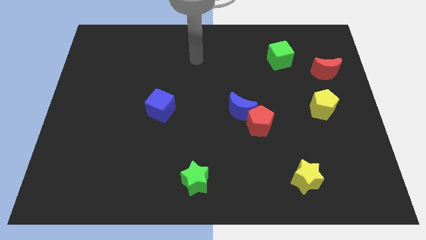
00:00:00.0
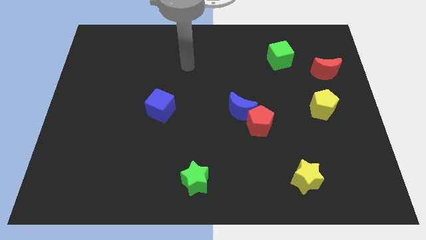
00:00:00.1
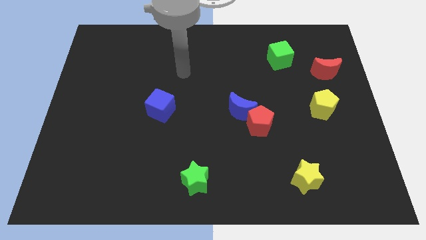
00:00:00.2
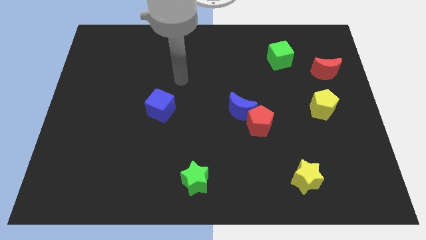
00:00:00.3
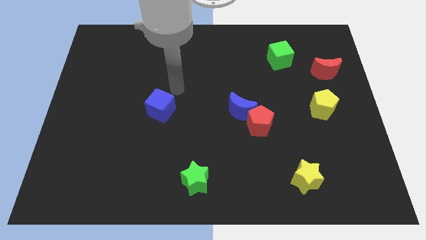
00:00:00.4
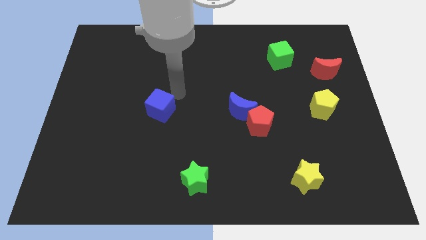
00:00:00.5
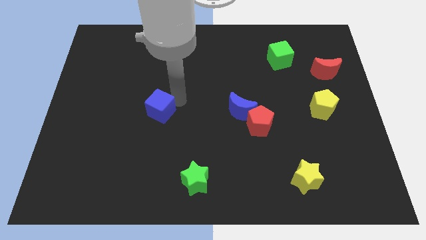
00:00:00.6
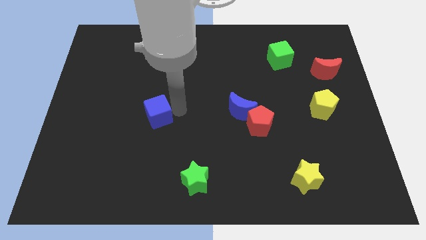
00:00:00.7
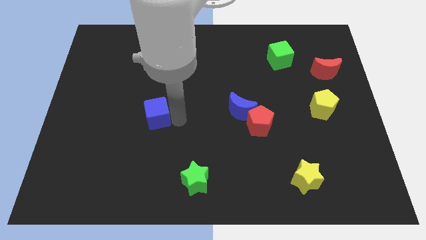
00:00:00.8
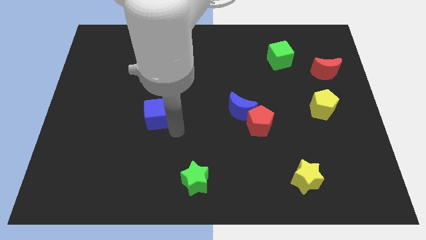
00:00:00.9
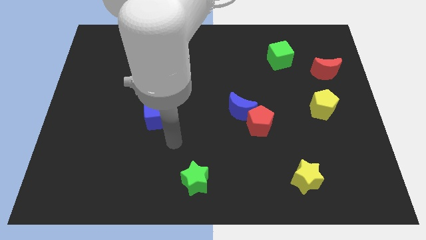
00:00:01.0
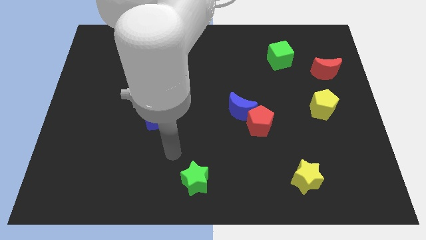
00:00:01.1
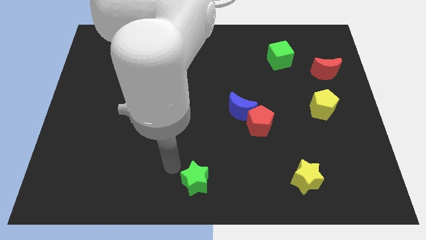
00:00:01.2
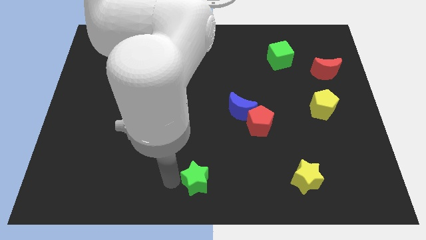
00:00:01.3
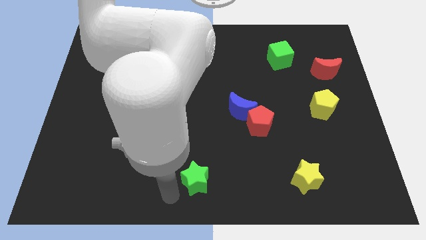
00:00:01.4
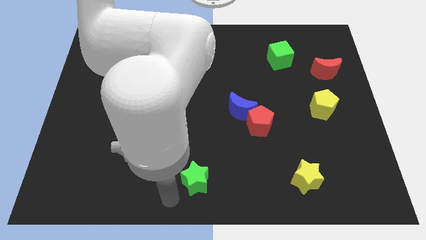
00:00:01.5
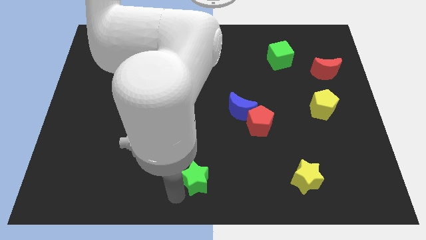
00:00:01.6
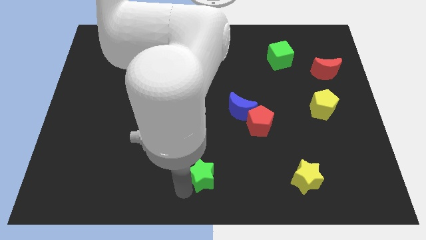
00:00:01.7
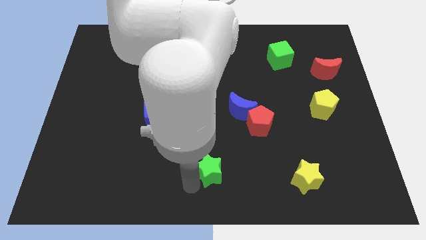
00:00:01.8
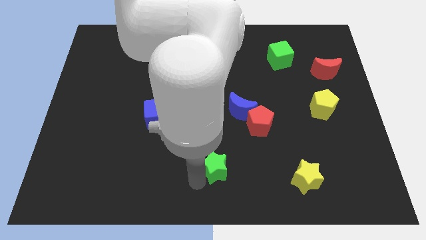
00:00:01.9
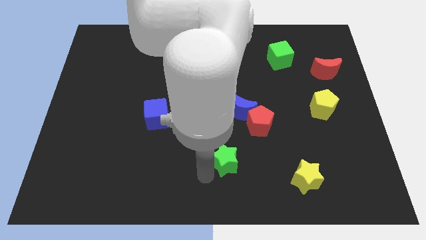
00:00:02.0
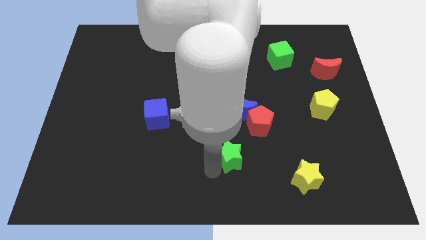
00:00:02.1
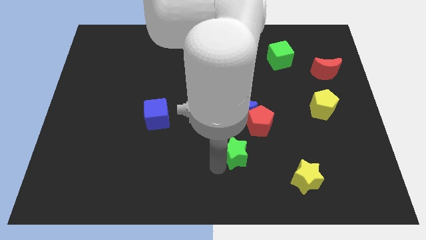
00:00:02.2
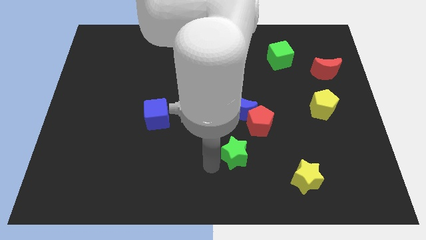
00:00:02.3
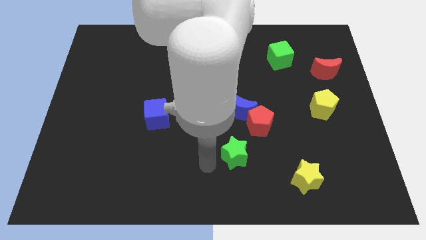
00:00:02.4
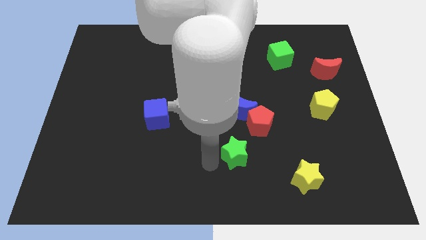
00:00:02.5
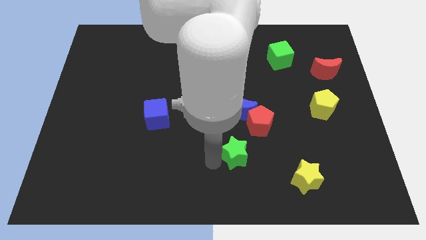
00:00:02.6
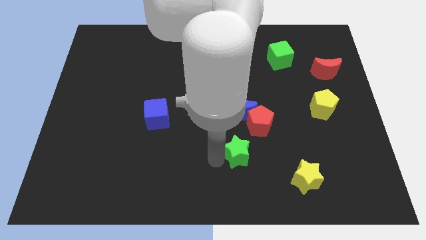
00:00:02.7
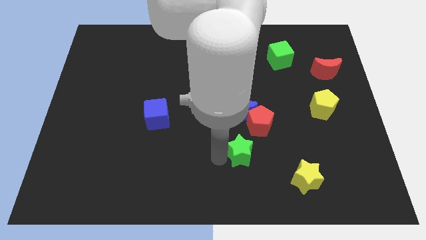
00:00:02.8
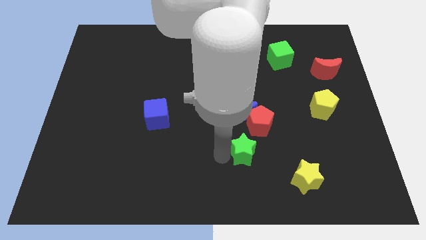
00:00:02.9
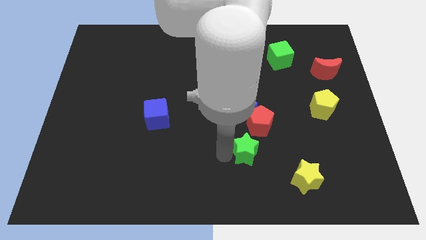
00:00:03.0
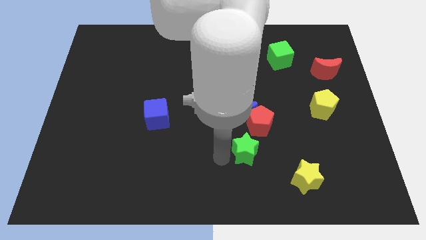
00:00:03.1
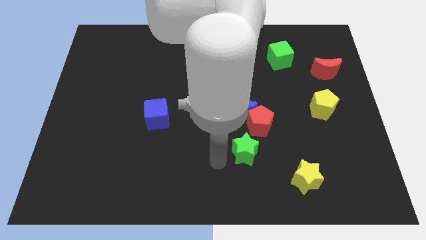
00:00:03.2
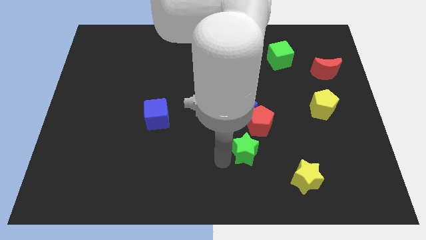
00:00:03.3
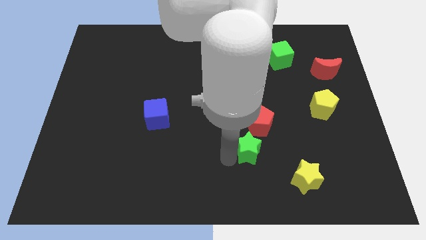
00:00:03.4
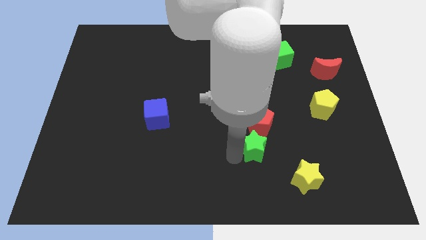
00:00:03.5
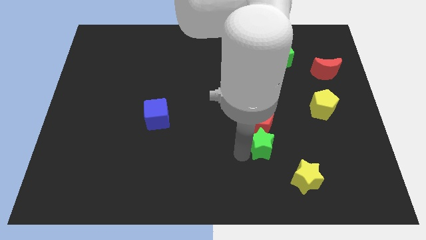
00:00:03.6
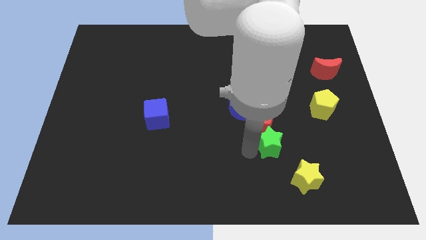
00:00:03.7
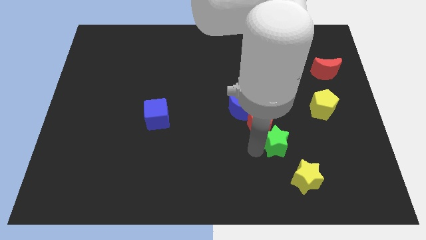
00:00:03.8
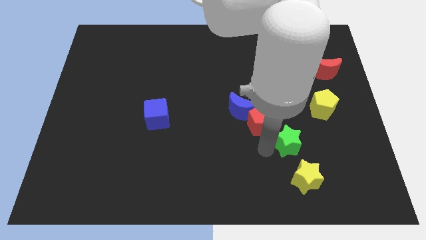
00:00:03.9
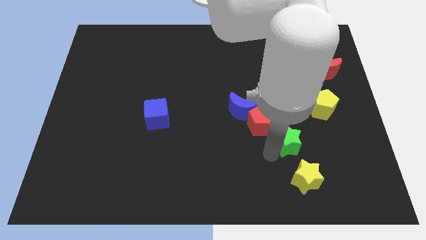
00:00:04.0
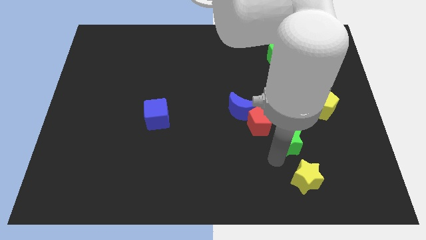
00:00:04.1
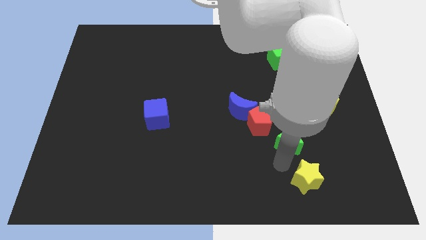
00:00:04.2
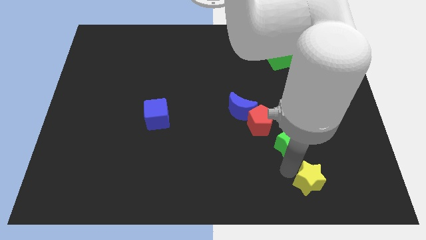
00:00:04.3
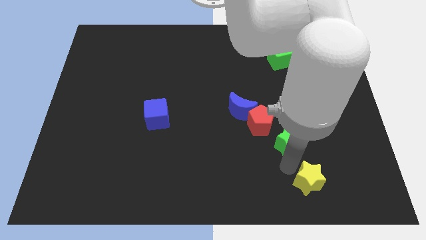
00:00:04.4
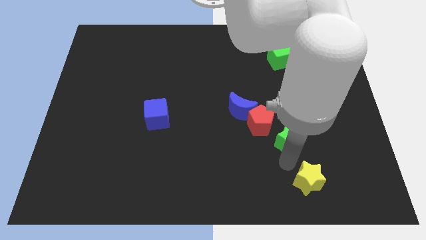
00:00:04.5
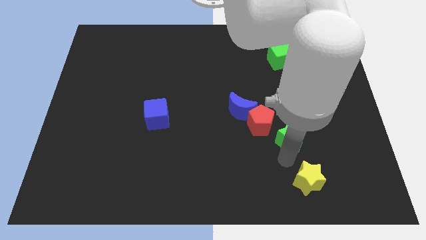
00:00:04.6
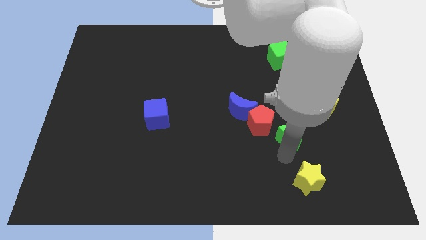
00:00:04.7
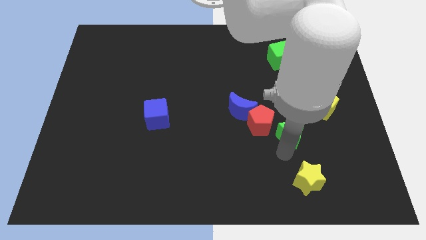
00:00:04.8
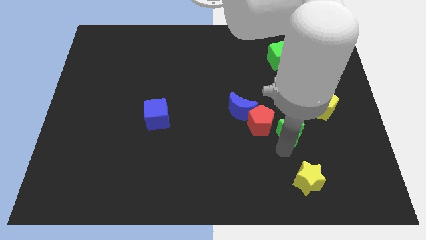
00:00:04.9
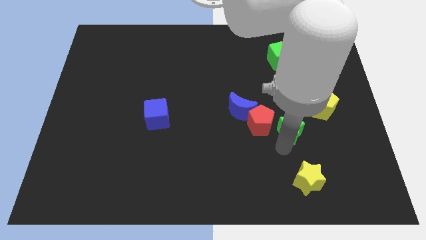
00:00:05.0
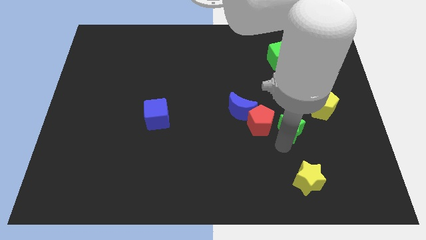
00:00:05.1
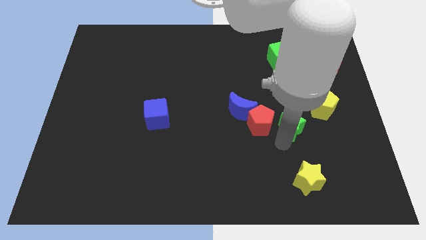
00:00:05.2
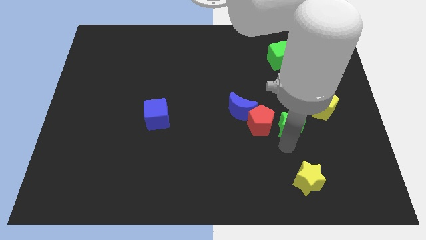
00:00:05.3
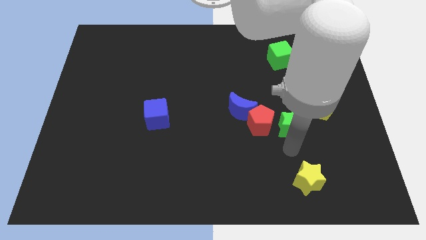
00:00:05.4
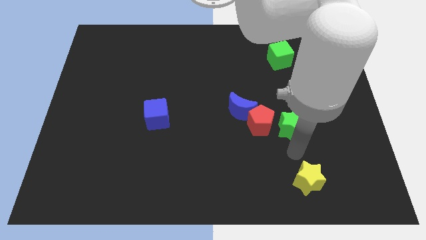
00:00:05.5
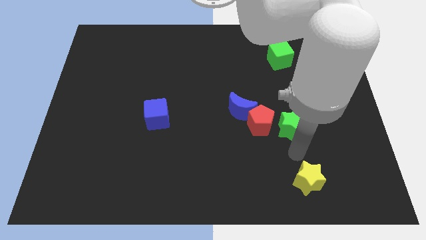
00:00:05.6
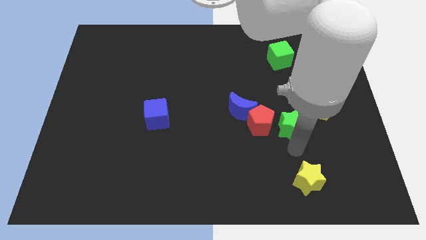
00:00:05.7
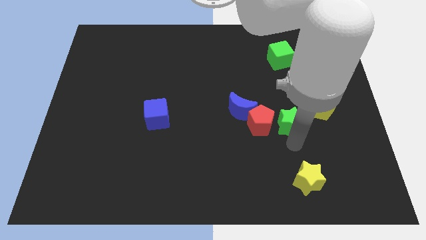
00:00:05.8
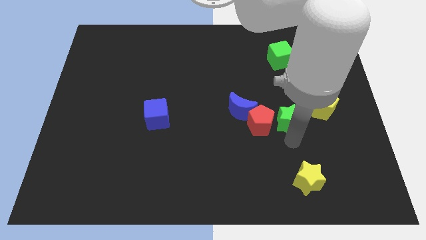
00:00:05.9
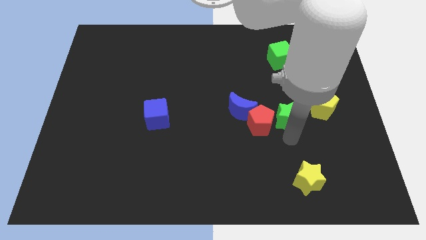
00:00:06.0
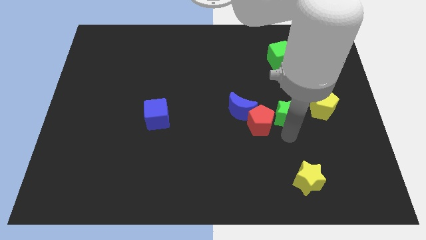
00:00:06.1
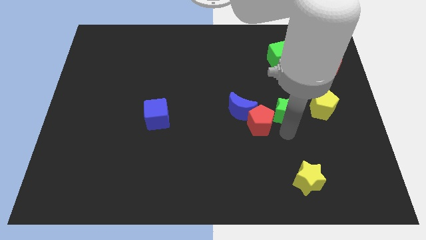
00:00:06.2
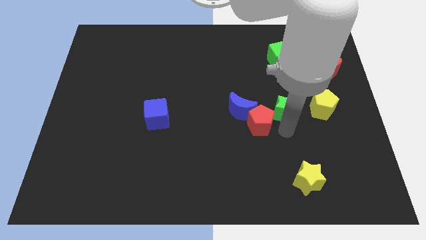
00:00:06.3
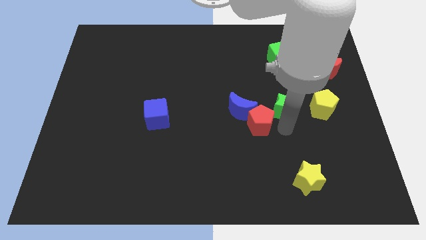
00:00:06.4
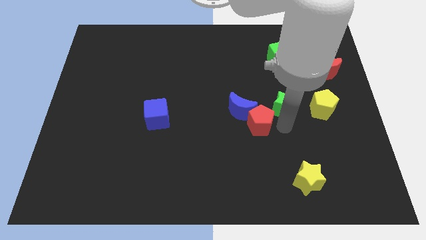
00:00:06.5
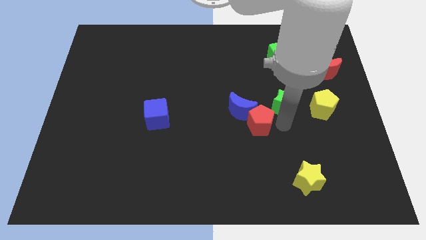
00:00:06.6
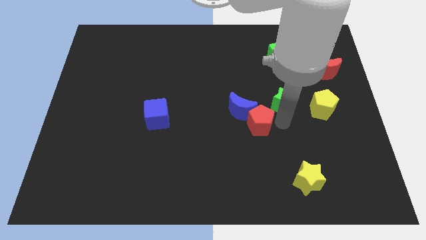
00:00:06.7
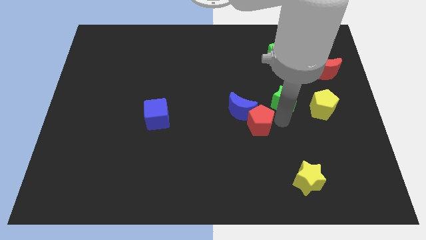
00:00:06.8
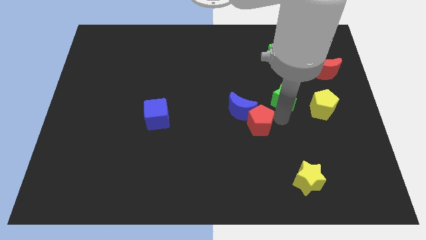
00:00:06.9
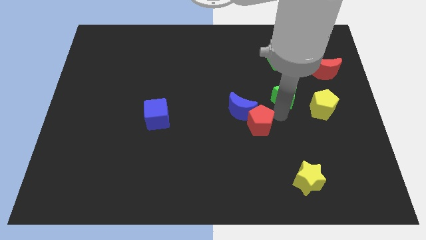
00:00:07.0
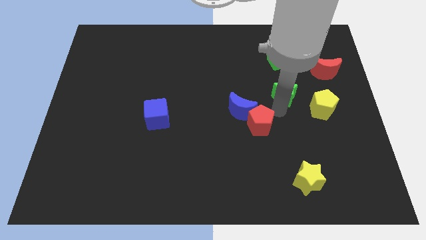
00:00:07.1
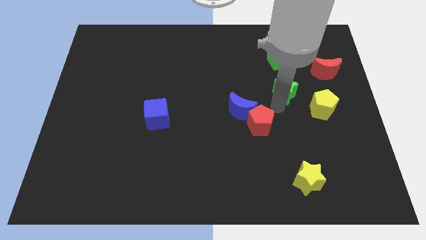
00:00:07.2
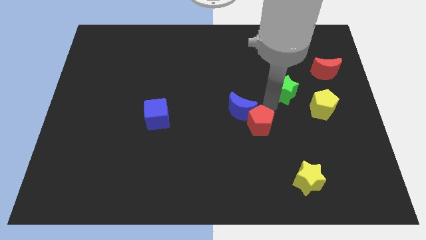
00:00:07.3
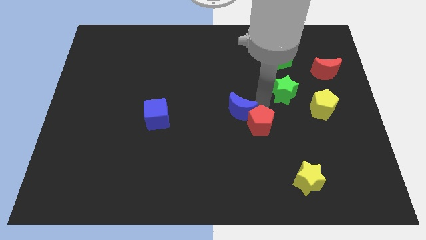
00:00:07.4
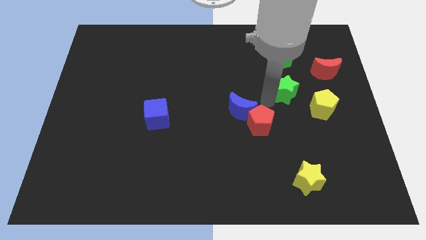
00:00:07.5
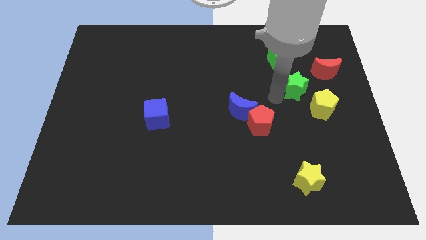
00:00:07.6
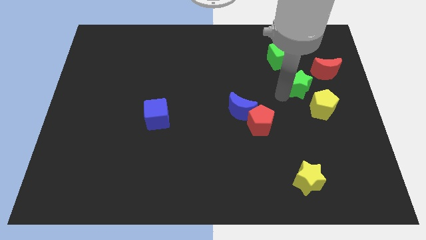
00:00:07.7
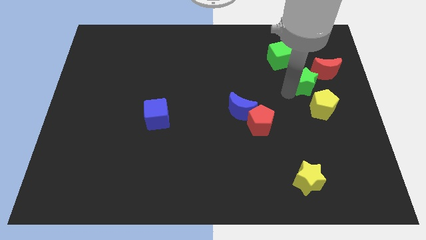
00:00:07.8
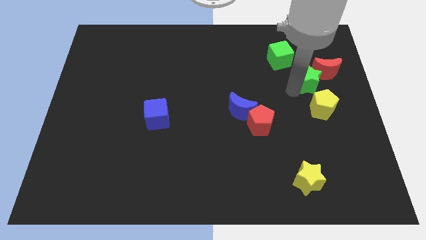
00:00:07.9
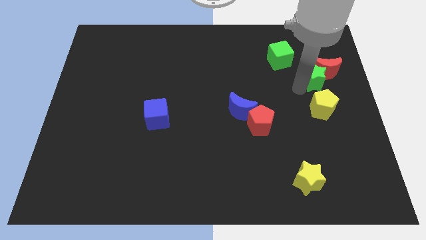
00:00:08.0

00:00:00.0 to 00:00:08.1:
slide the green star close to the red moon

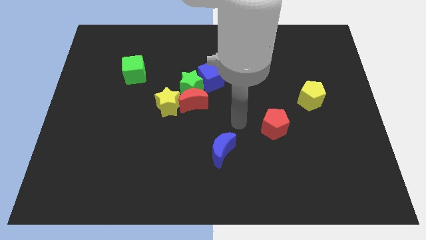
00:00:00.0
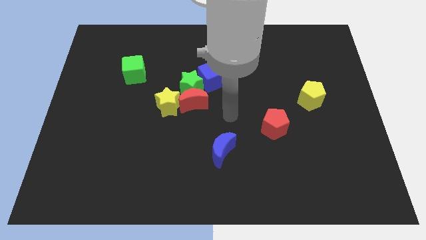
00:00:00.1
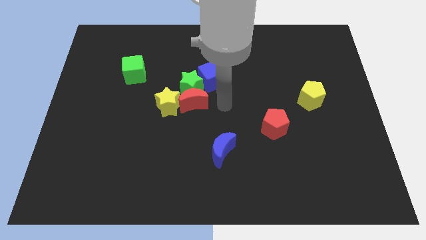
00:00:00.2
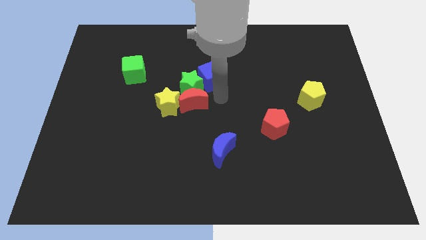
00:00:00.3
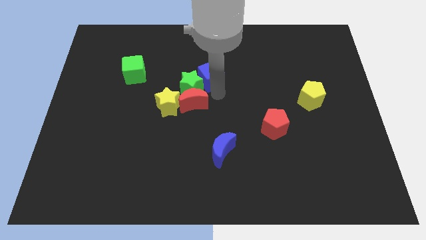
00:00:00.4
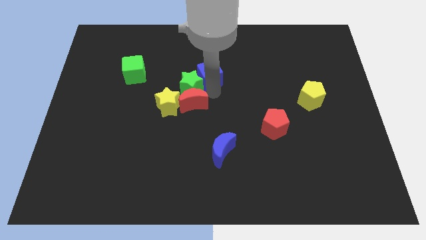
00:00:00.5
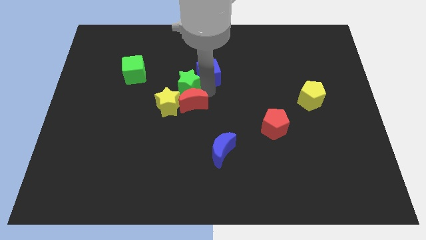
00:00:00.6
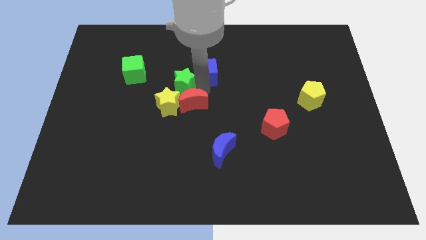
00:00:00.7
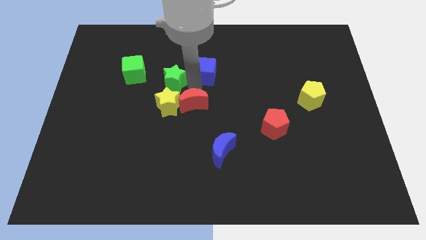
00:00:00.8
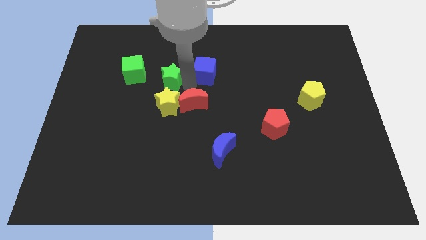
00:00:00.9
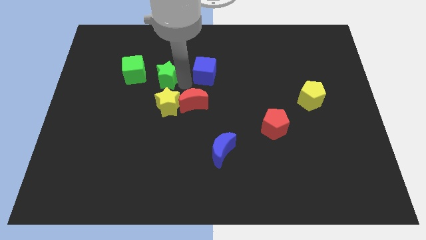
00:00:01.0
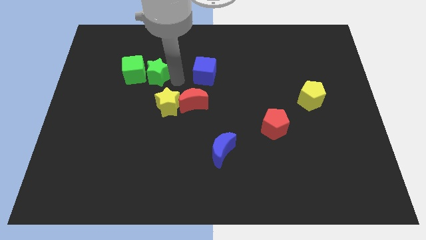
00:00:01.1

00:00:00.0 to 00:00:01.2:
push the green star to the green cube
